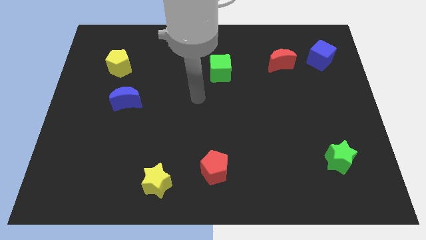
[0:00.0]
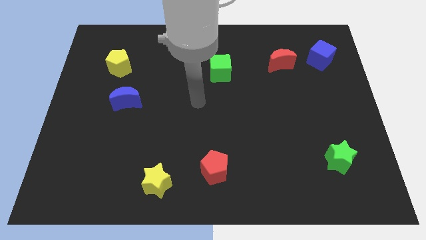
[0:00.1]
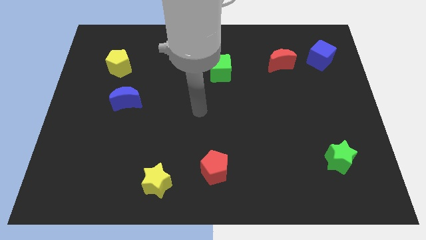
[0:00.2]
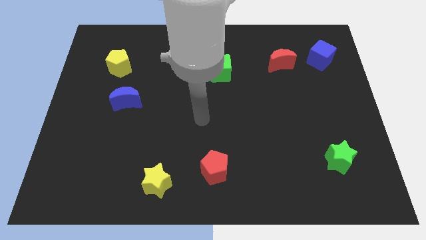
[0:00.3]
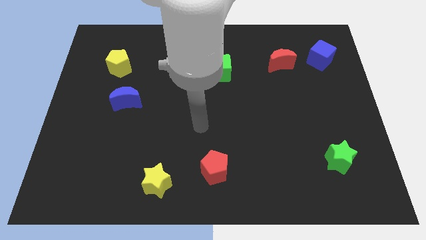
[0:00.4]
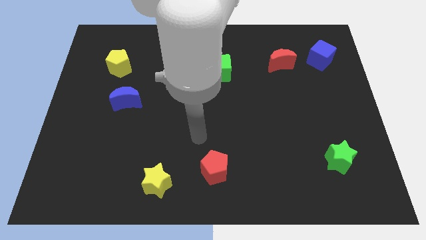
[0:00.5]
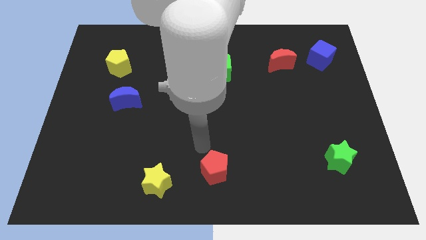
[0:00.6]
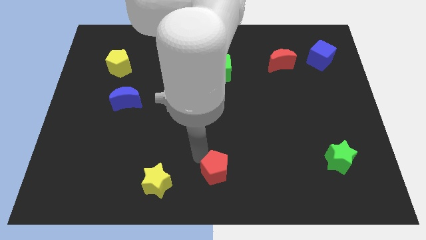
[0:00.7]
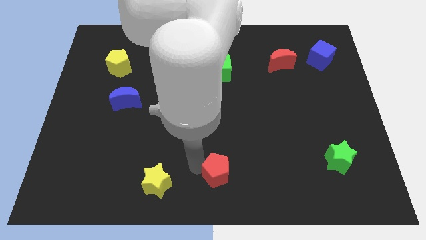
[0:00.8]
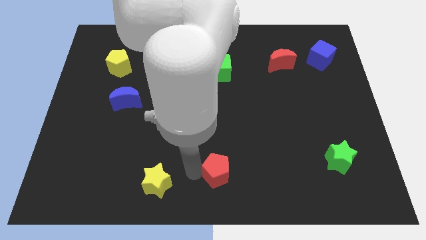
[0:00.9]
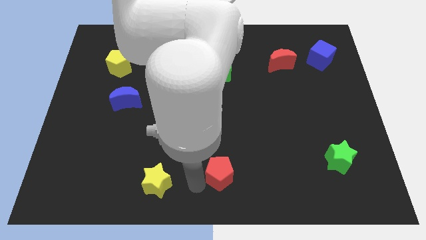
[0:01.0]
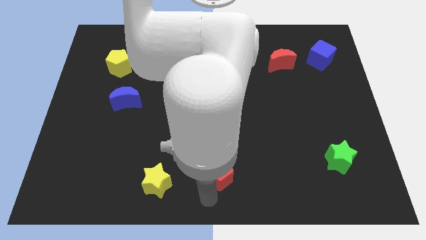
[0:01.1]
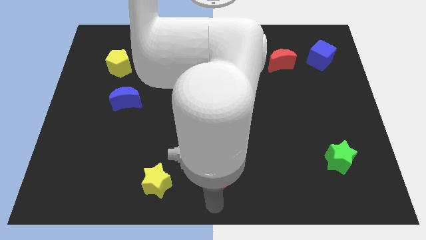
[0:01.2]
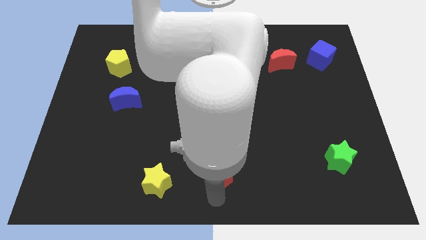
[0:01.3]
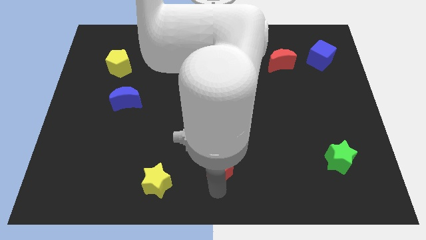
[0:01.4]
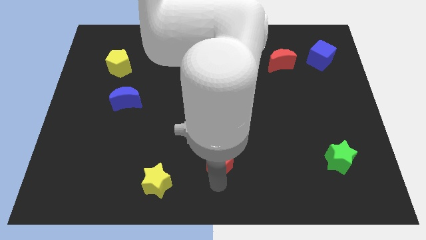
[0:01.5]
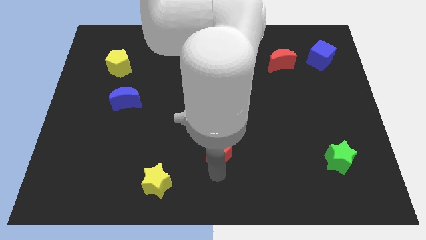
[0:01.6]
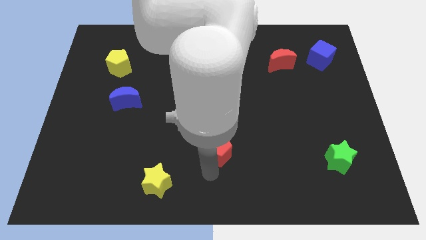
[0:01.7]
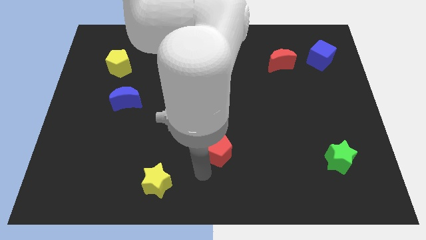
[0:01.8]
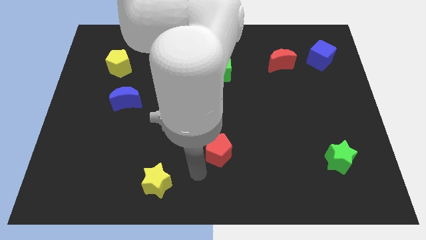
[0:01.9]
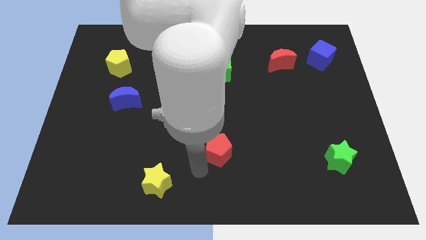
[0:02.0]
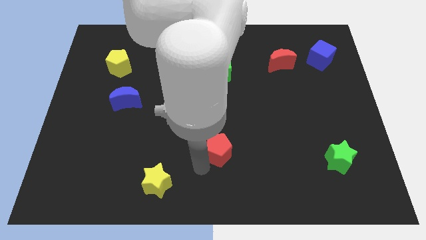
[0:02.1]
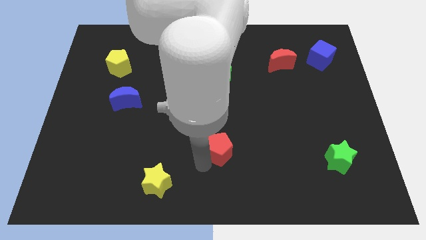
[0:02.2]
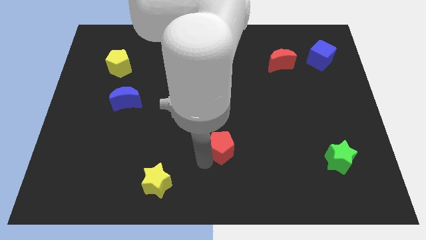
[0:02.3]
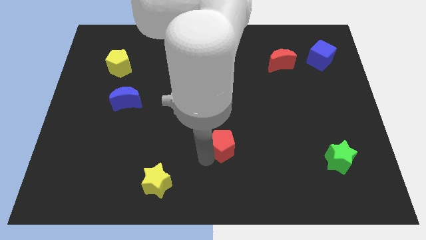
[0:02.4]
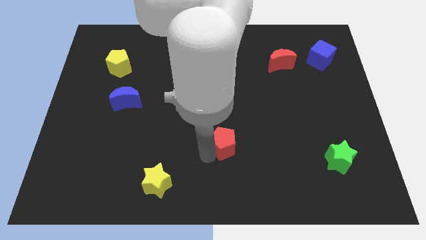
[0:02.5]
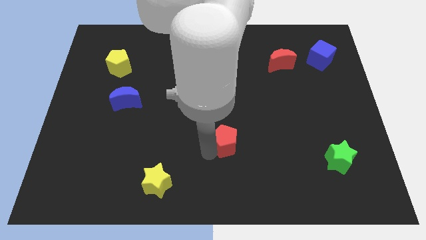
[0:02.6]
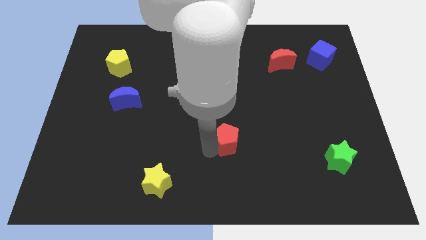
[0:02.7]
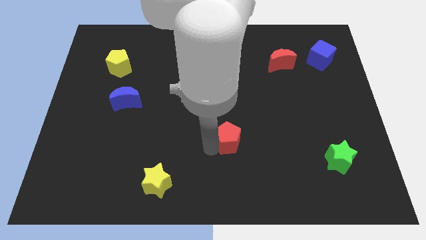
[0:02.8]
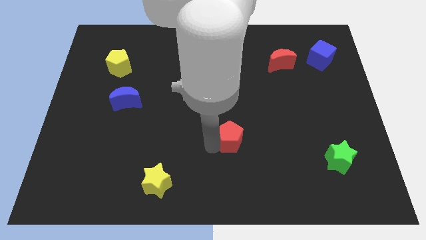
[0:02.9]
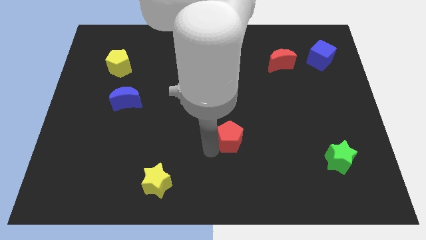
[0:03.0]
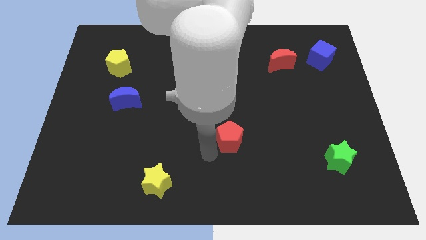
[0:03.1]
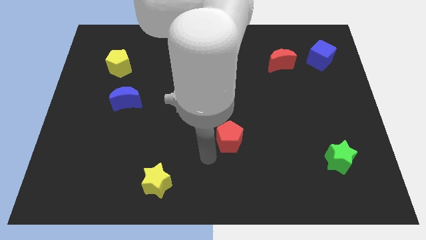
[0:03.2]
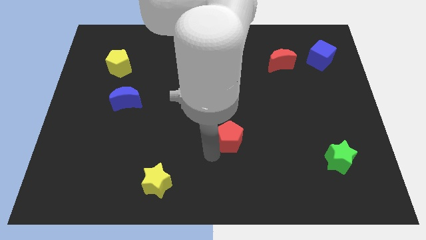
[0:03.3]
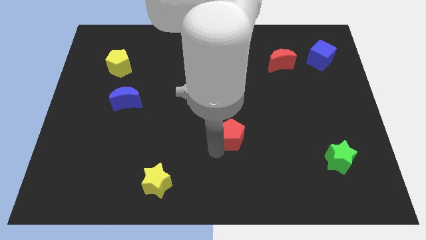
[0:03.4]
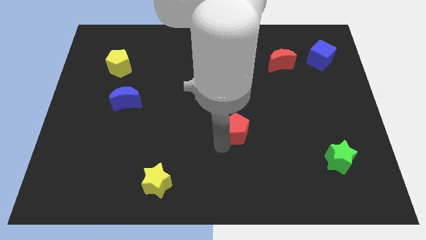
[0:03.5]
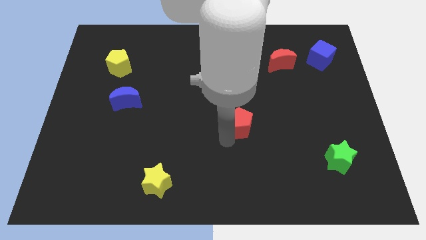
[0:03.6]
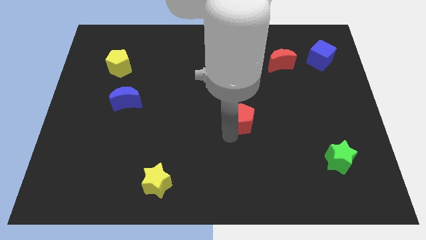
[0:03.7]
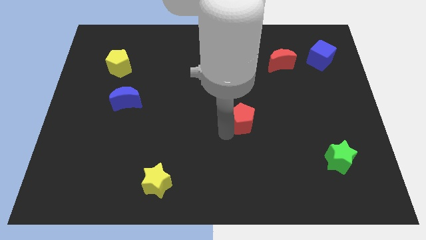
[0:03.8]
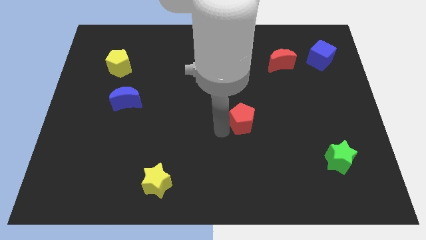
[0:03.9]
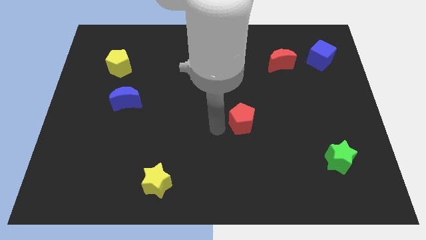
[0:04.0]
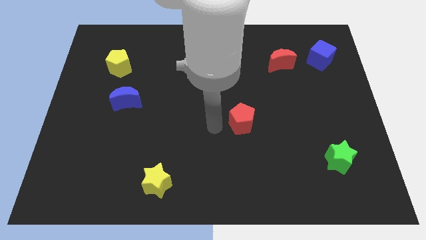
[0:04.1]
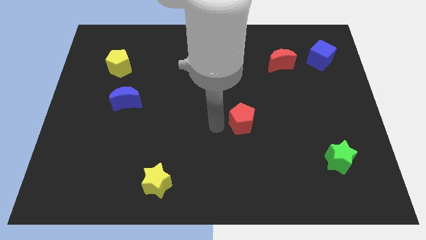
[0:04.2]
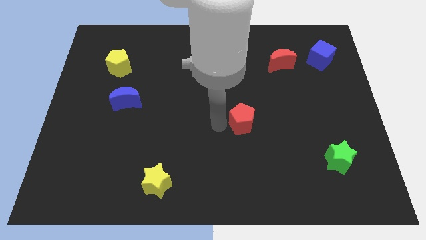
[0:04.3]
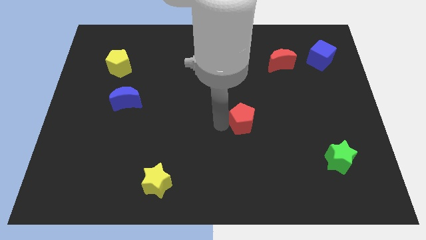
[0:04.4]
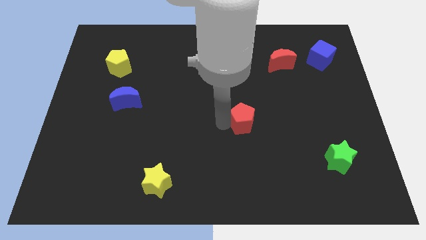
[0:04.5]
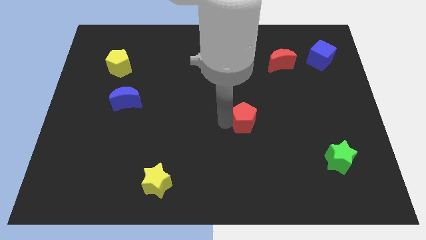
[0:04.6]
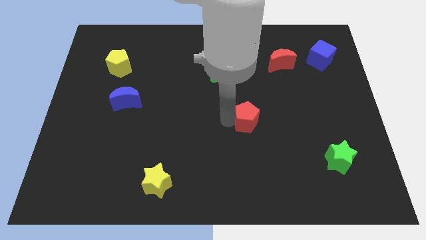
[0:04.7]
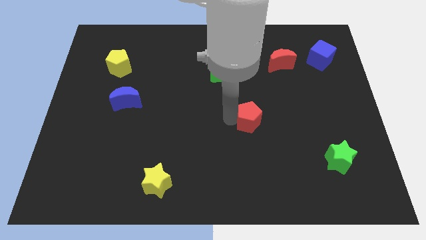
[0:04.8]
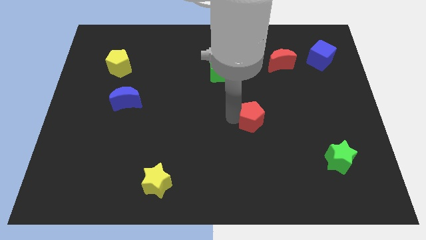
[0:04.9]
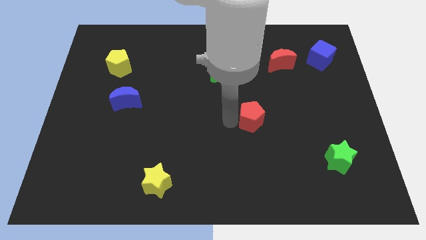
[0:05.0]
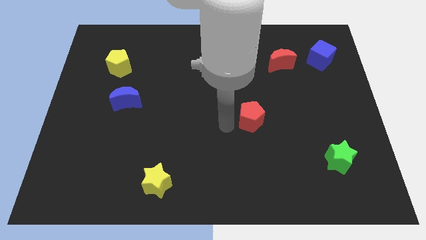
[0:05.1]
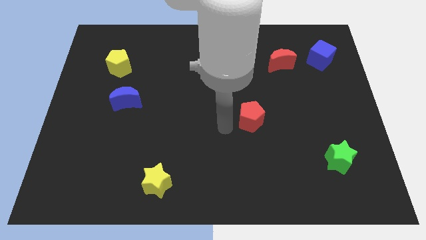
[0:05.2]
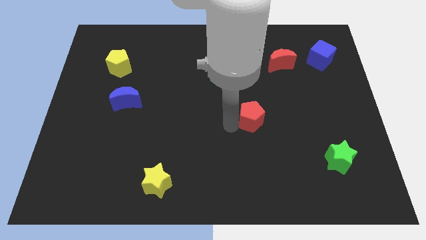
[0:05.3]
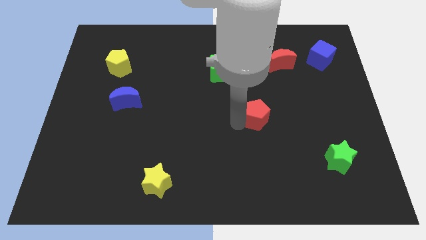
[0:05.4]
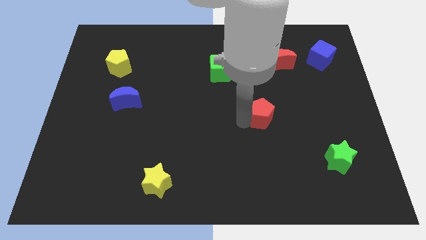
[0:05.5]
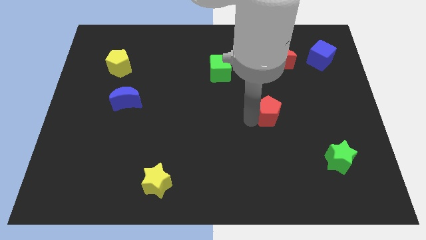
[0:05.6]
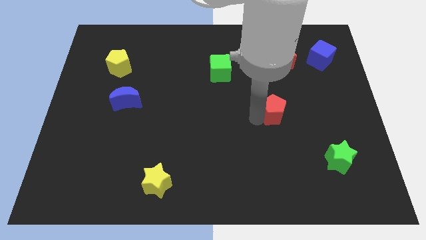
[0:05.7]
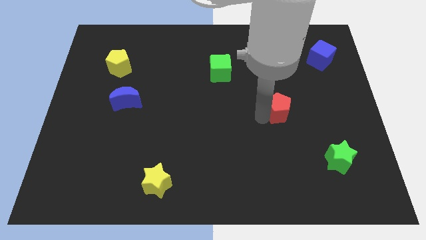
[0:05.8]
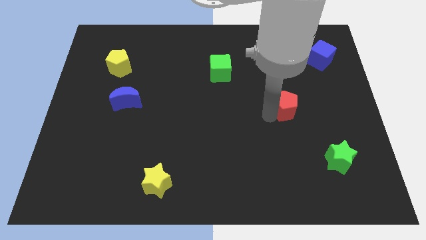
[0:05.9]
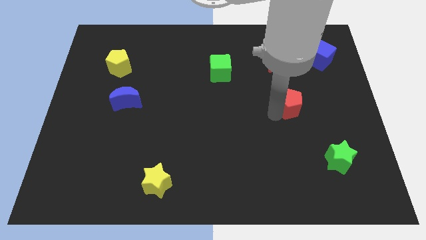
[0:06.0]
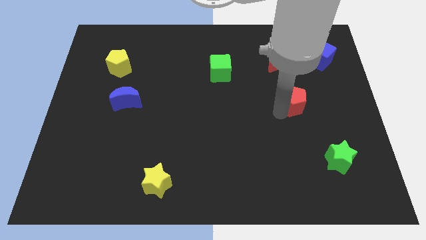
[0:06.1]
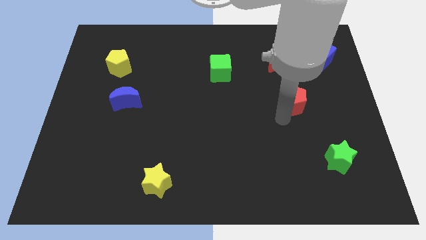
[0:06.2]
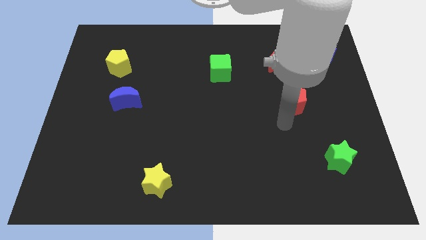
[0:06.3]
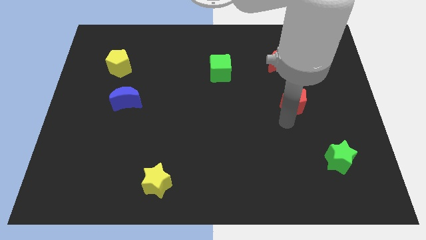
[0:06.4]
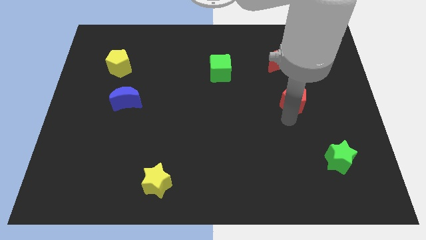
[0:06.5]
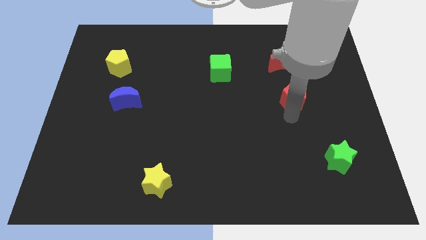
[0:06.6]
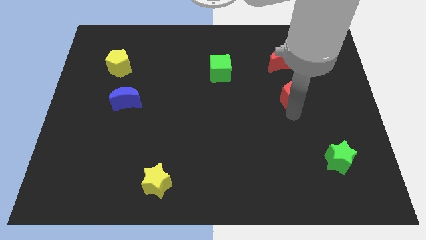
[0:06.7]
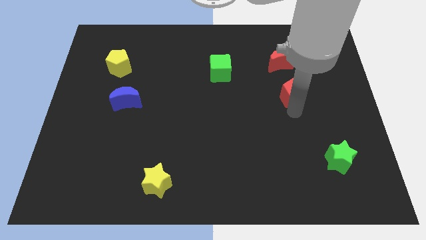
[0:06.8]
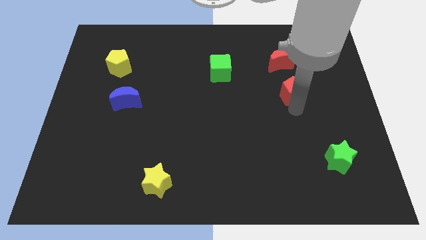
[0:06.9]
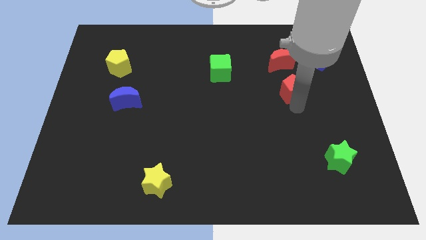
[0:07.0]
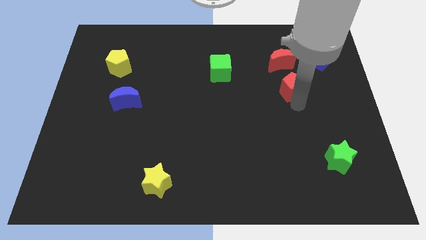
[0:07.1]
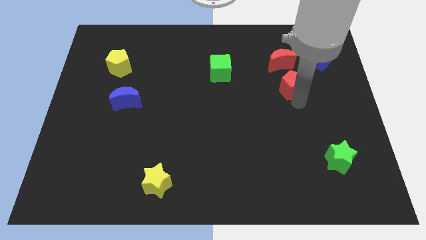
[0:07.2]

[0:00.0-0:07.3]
push the red pentagon diagonally down and to the right of the red moon
